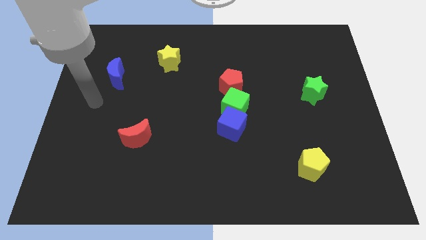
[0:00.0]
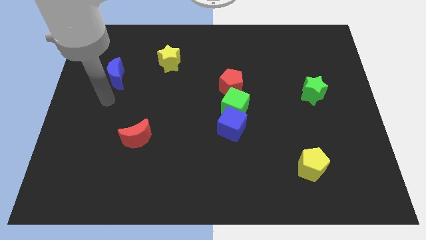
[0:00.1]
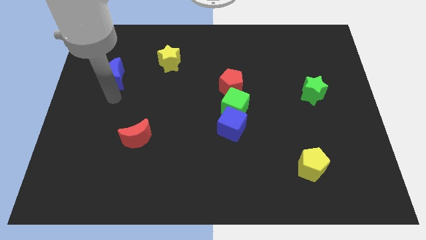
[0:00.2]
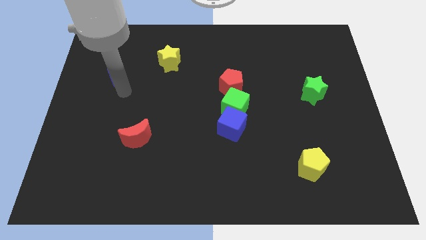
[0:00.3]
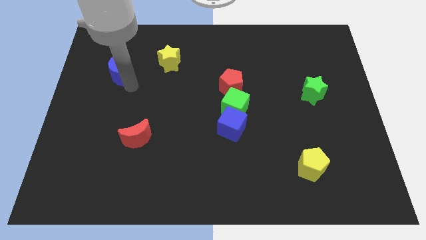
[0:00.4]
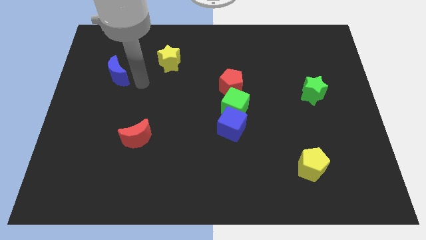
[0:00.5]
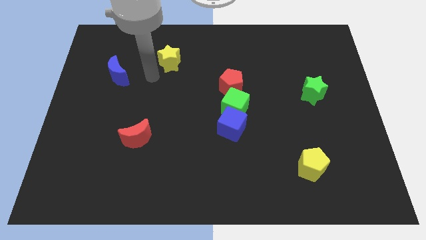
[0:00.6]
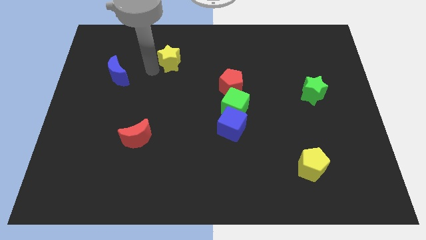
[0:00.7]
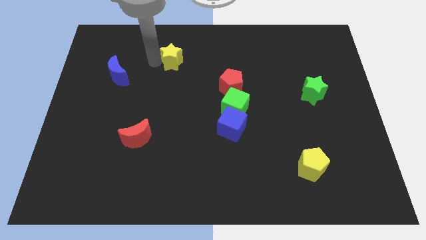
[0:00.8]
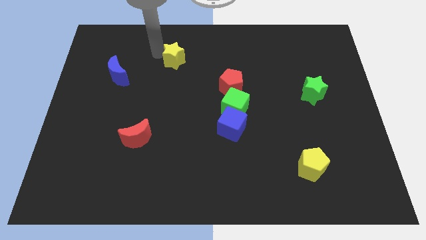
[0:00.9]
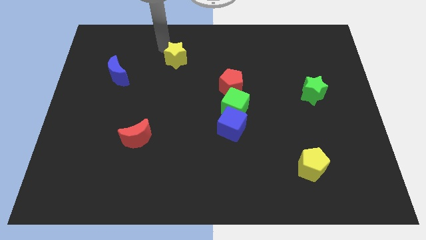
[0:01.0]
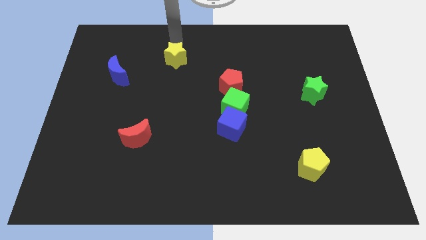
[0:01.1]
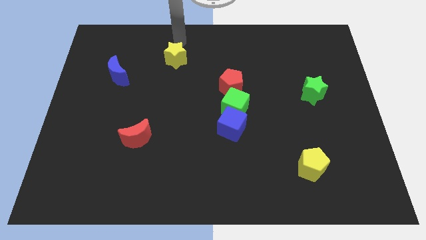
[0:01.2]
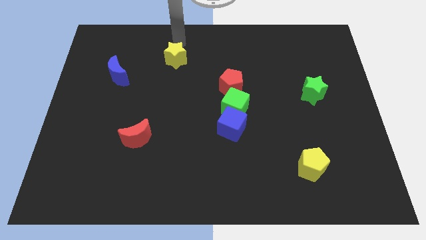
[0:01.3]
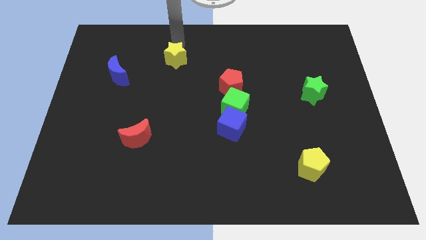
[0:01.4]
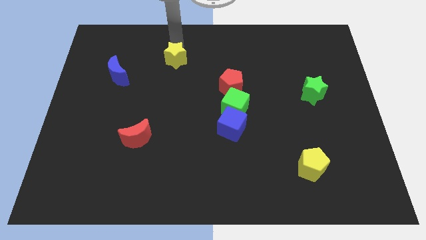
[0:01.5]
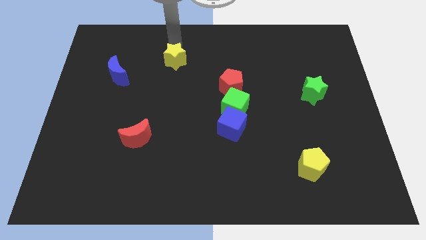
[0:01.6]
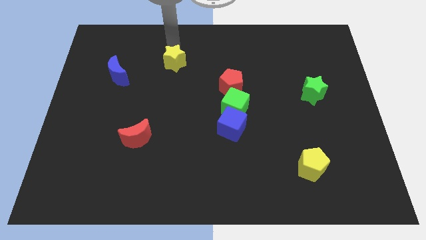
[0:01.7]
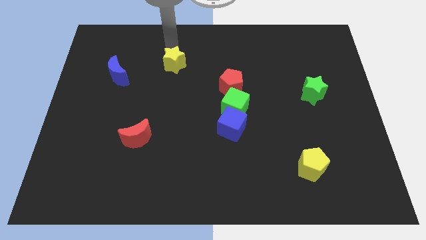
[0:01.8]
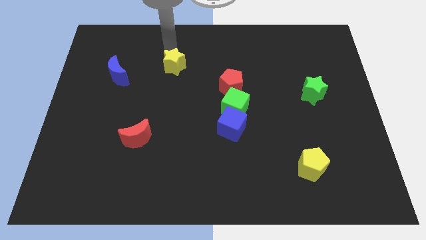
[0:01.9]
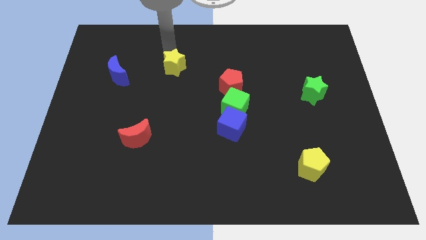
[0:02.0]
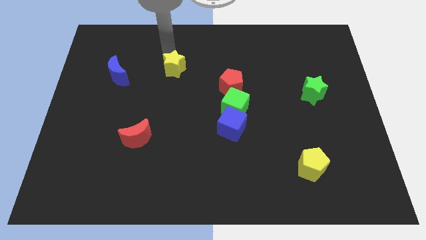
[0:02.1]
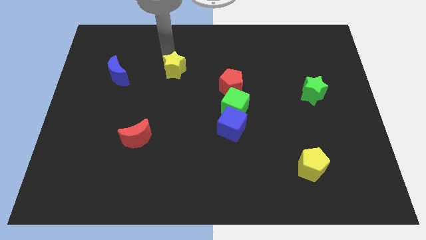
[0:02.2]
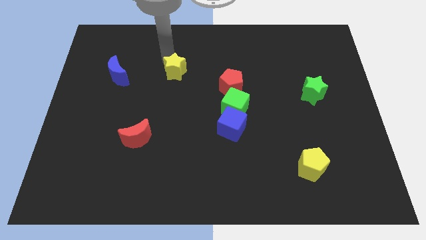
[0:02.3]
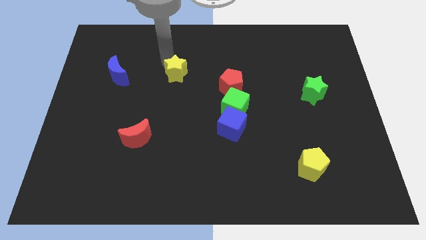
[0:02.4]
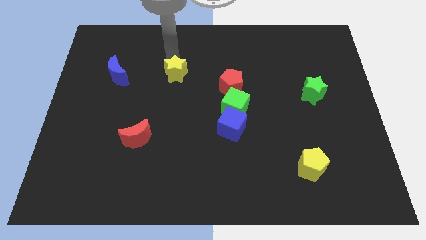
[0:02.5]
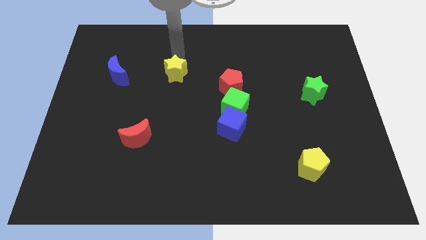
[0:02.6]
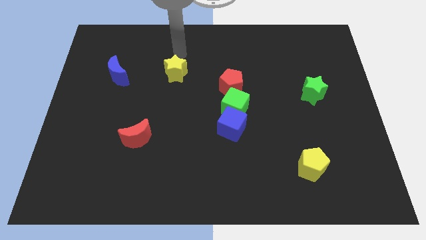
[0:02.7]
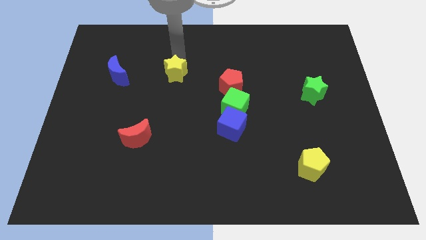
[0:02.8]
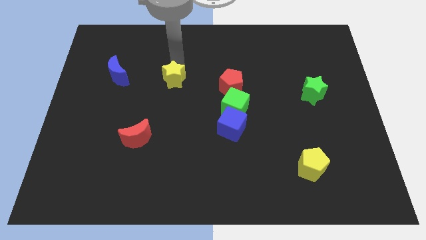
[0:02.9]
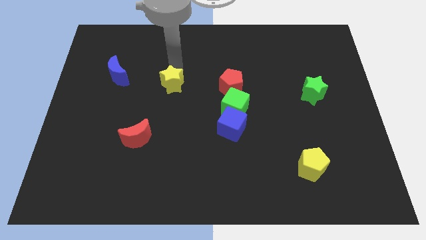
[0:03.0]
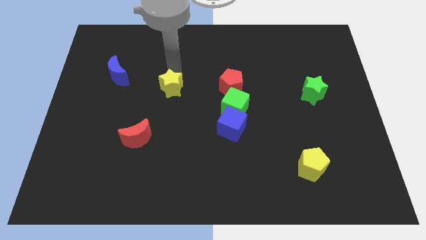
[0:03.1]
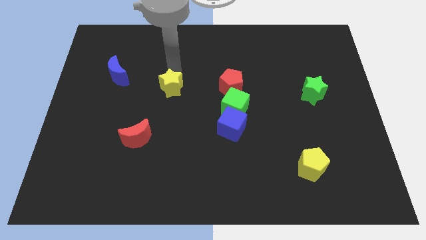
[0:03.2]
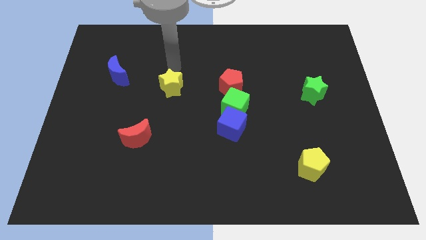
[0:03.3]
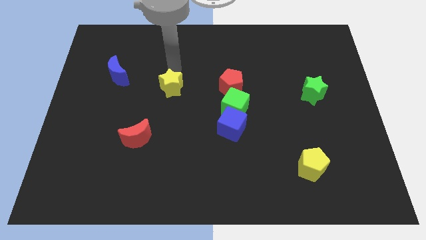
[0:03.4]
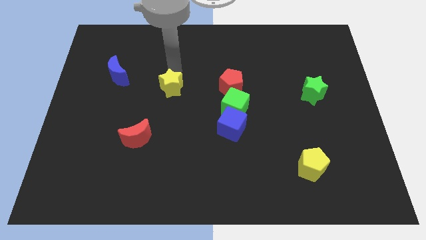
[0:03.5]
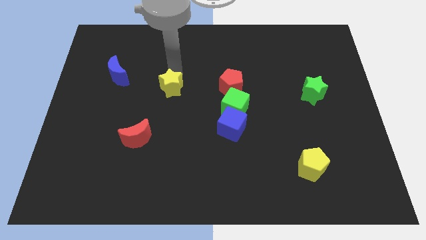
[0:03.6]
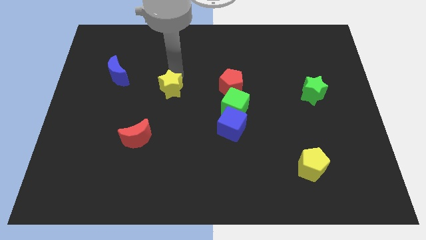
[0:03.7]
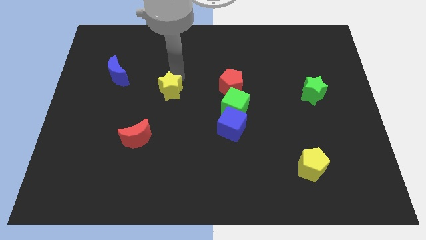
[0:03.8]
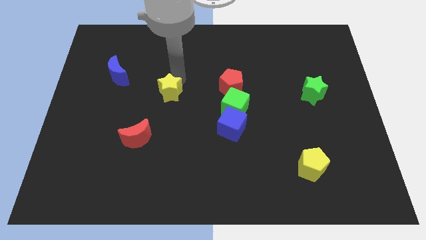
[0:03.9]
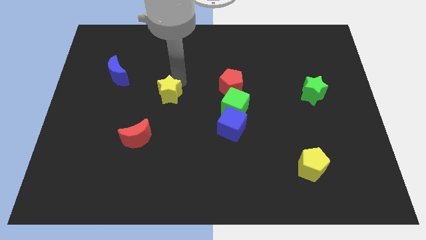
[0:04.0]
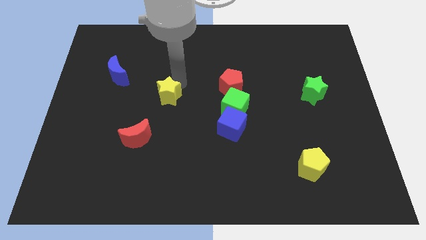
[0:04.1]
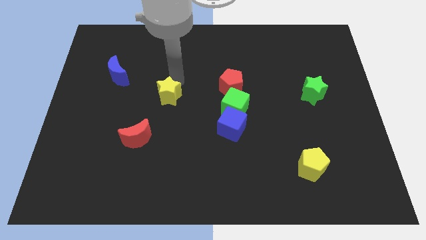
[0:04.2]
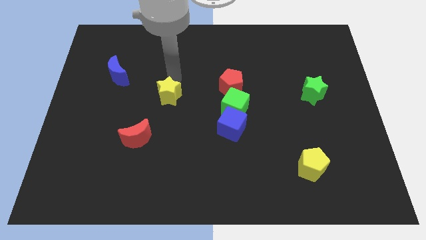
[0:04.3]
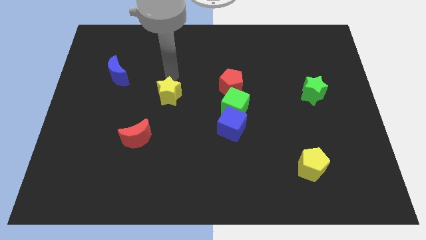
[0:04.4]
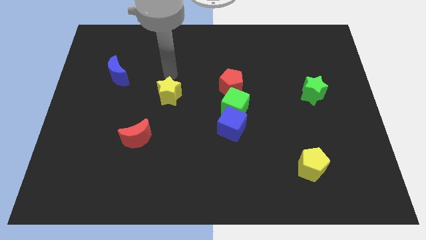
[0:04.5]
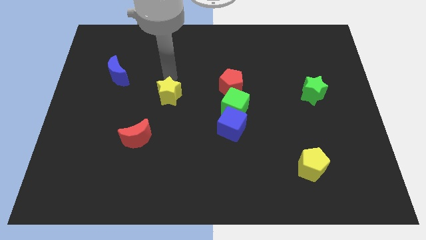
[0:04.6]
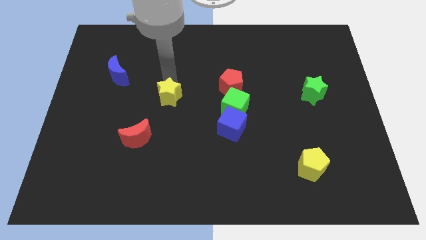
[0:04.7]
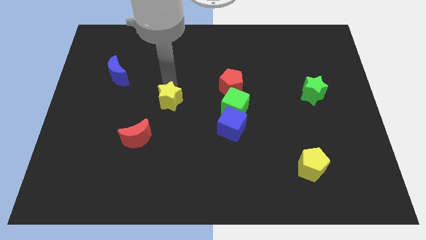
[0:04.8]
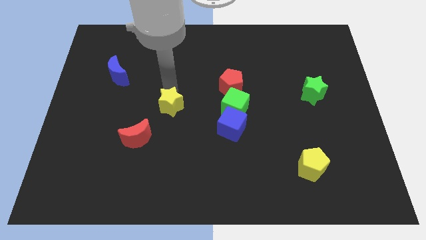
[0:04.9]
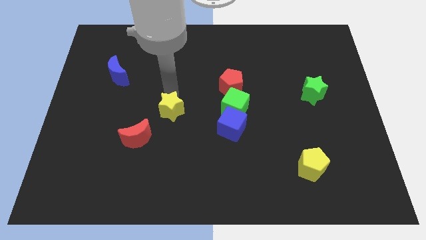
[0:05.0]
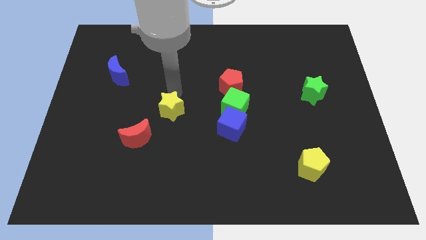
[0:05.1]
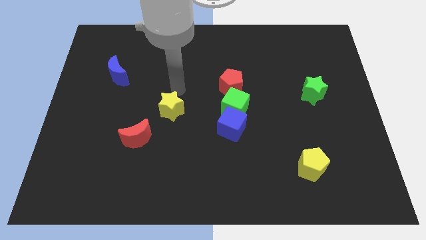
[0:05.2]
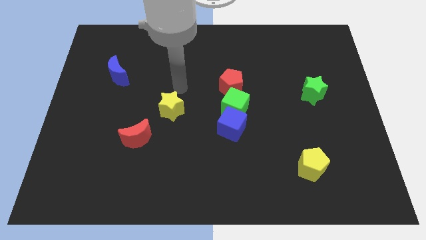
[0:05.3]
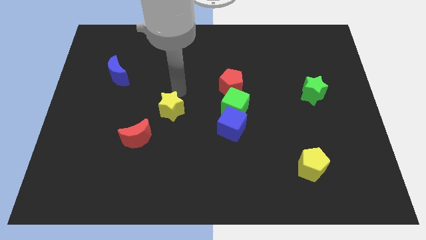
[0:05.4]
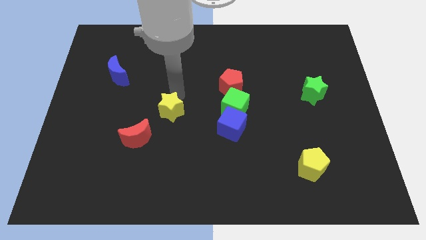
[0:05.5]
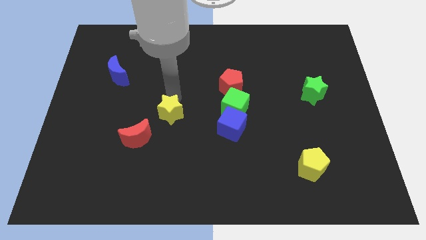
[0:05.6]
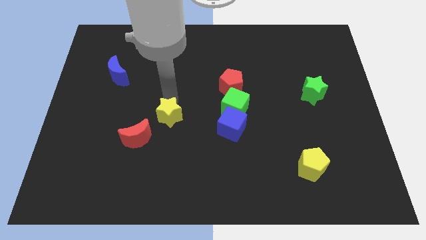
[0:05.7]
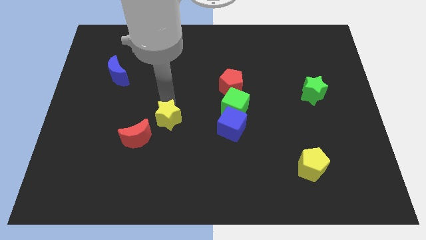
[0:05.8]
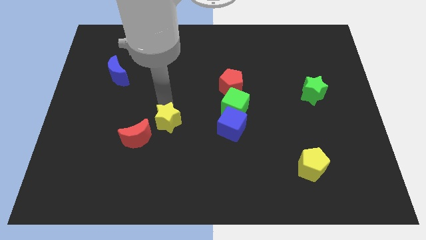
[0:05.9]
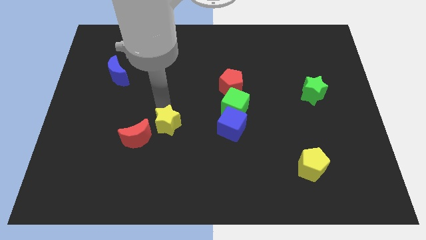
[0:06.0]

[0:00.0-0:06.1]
move the yellow star down

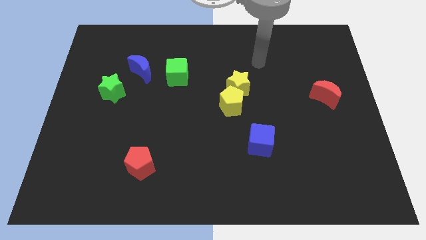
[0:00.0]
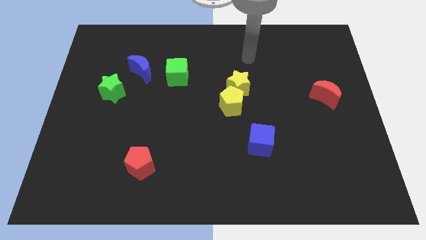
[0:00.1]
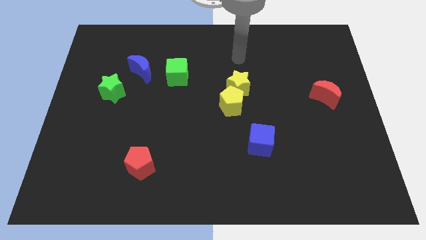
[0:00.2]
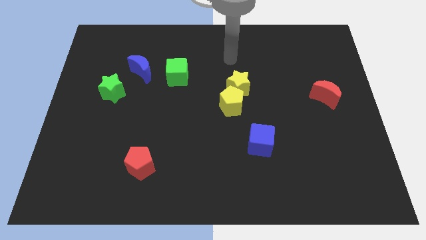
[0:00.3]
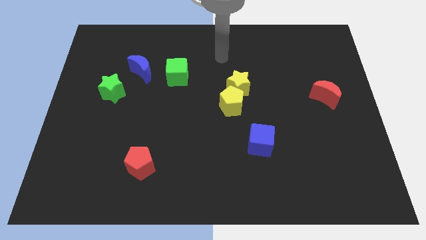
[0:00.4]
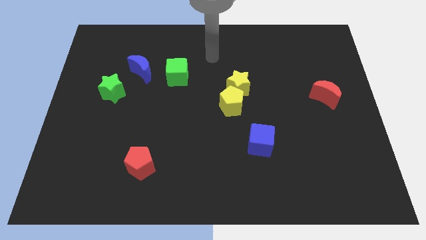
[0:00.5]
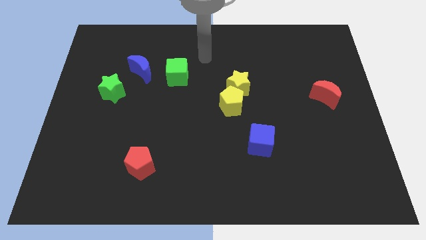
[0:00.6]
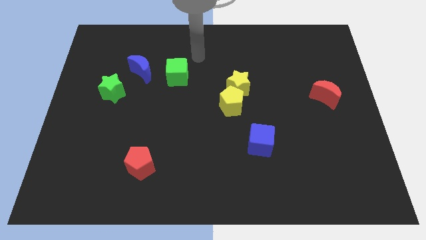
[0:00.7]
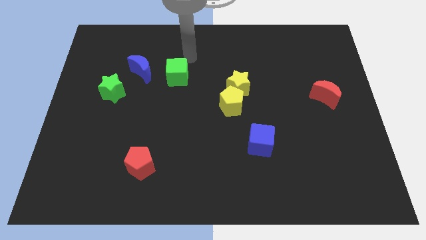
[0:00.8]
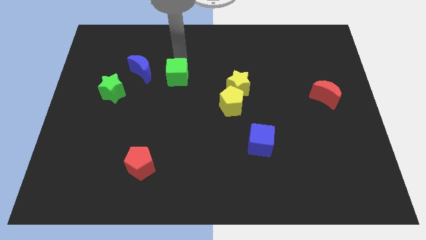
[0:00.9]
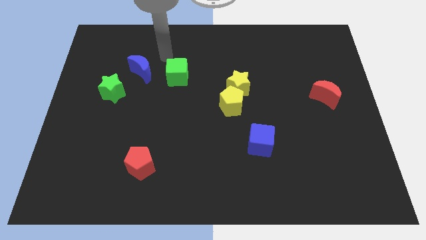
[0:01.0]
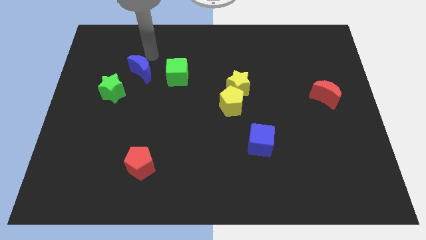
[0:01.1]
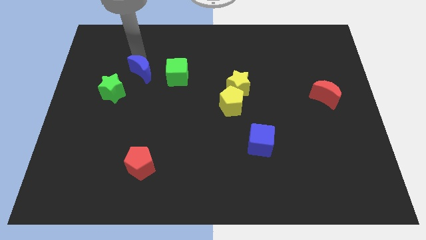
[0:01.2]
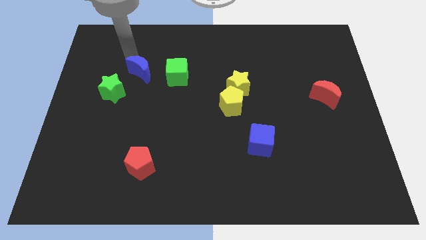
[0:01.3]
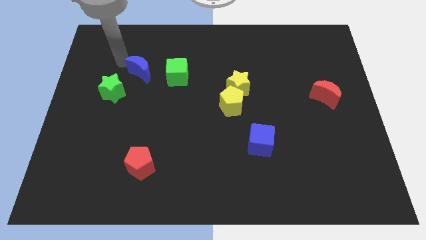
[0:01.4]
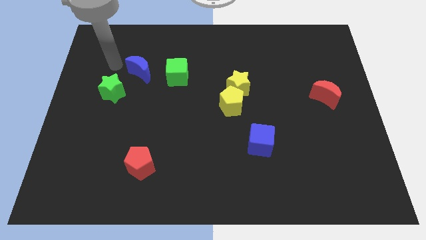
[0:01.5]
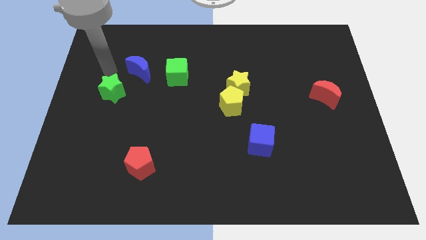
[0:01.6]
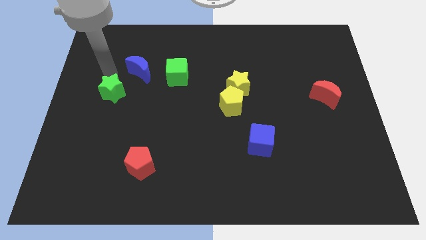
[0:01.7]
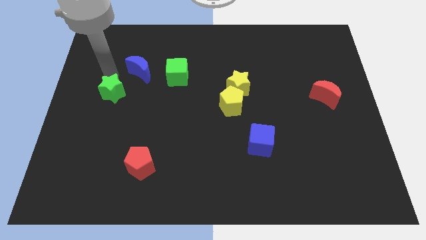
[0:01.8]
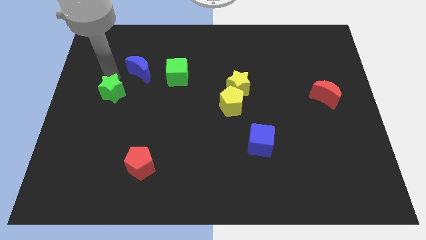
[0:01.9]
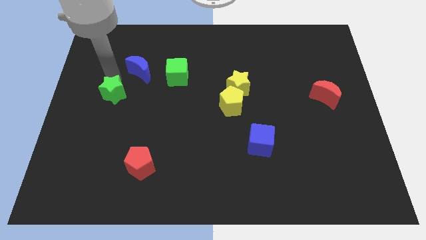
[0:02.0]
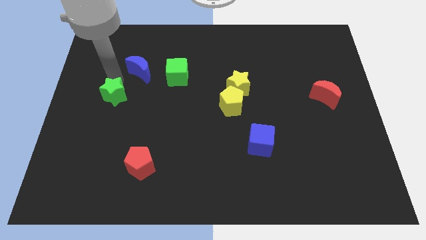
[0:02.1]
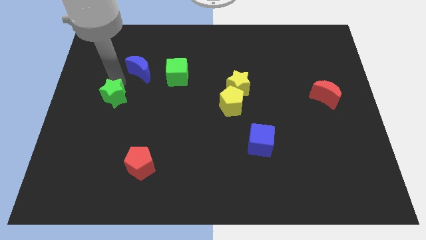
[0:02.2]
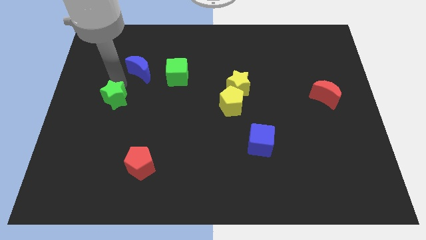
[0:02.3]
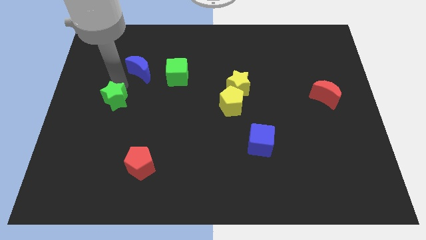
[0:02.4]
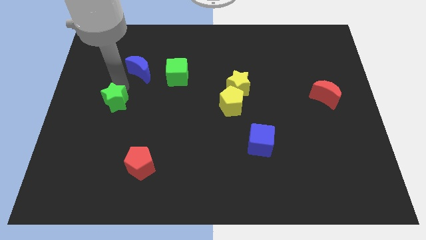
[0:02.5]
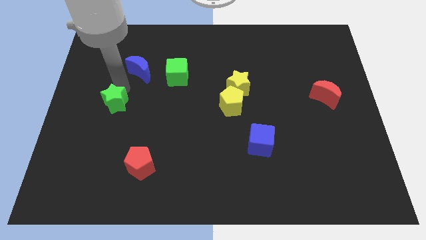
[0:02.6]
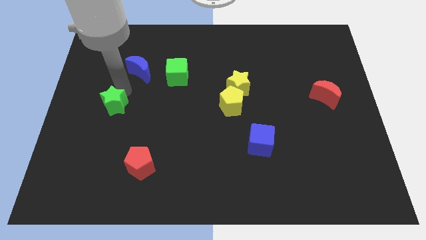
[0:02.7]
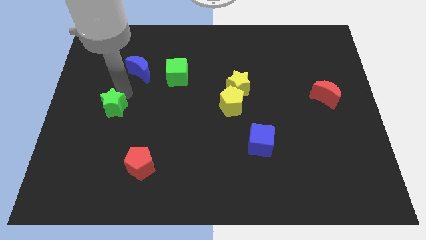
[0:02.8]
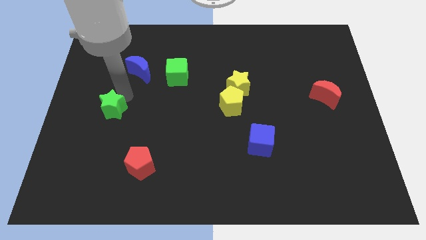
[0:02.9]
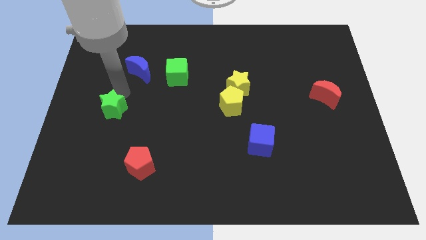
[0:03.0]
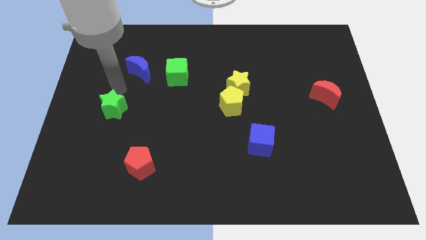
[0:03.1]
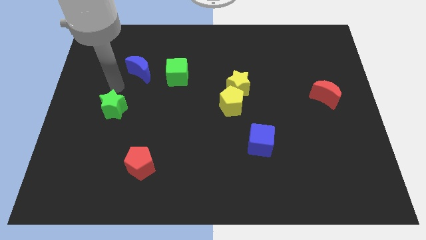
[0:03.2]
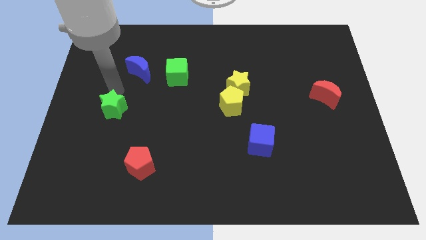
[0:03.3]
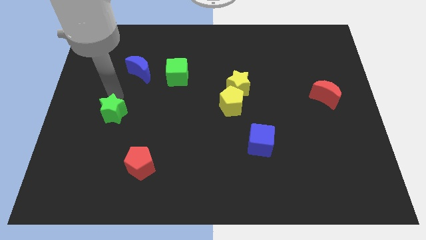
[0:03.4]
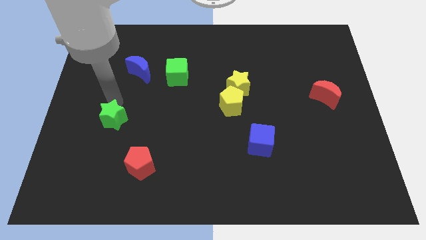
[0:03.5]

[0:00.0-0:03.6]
slide the green star downwards a little bit
